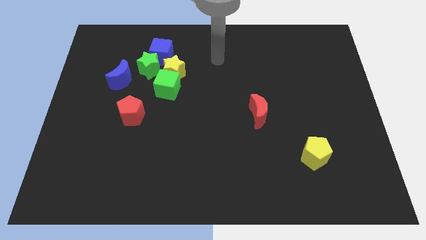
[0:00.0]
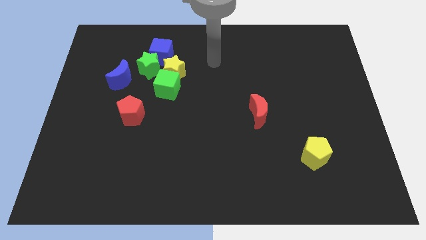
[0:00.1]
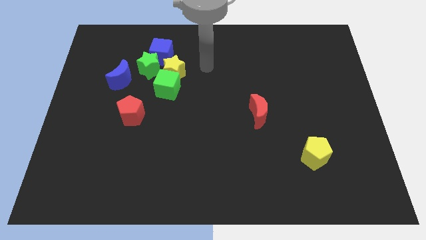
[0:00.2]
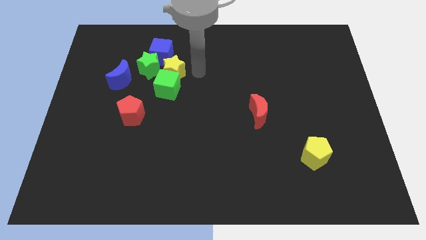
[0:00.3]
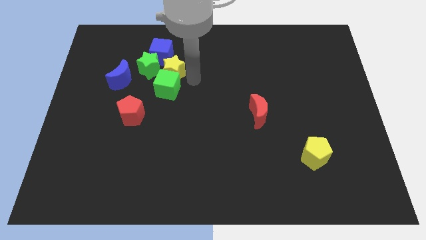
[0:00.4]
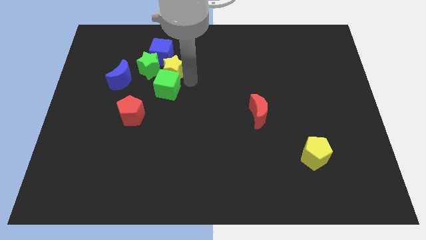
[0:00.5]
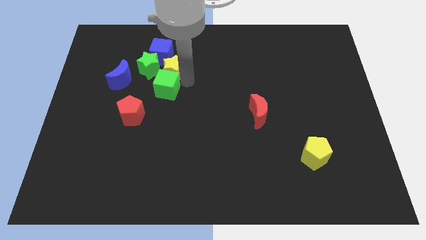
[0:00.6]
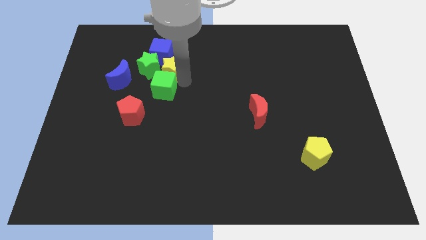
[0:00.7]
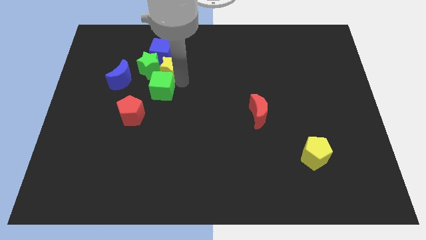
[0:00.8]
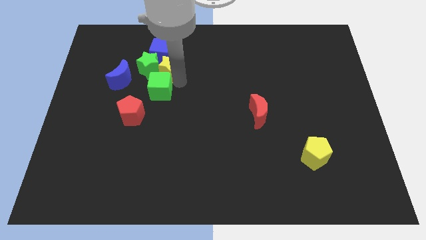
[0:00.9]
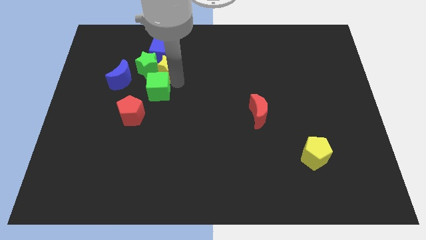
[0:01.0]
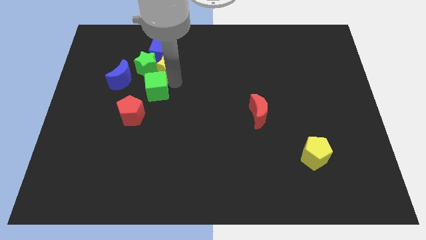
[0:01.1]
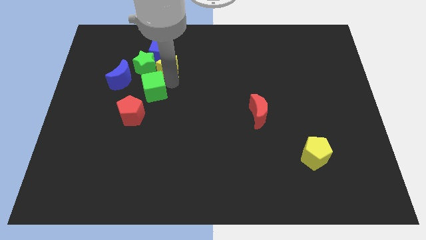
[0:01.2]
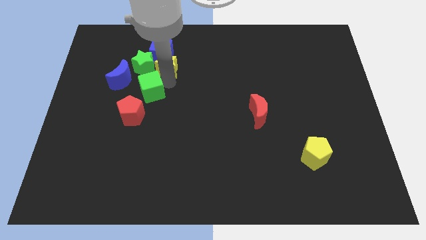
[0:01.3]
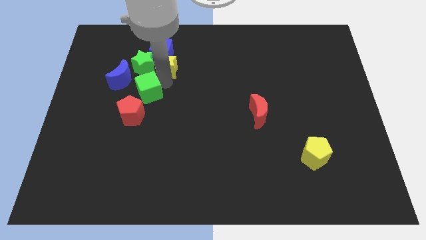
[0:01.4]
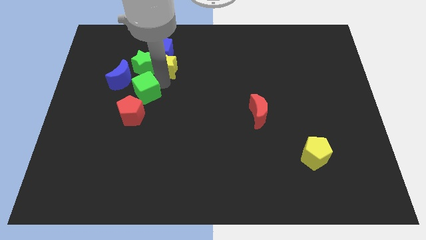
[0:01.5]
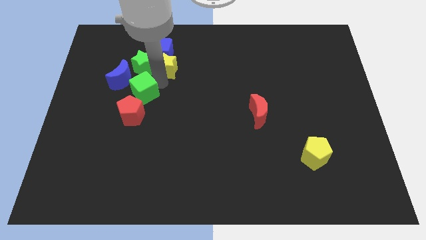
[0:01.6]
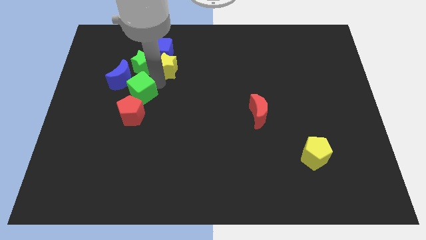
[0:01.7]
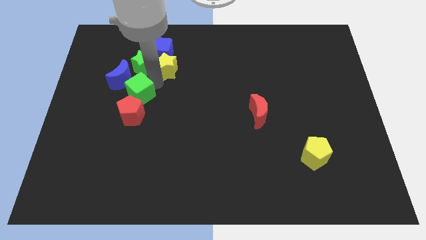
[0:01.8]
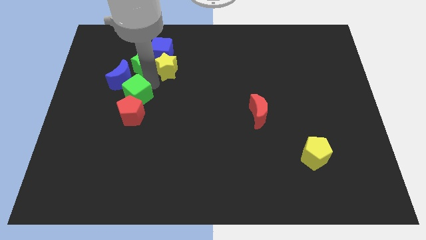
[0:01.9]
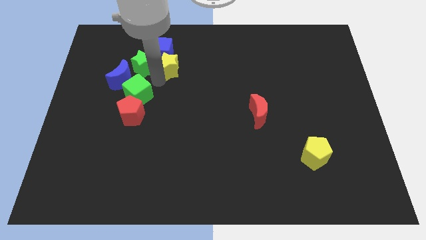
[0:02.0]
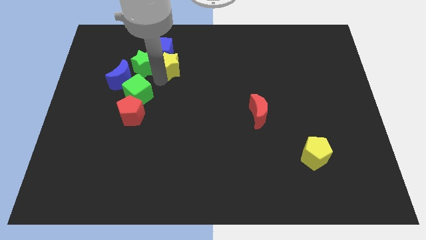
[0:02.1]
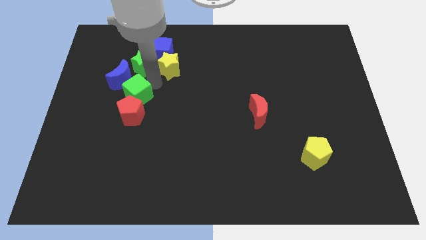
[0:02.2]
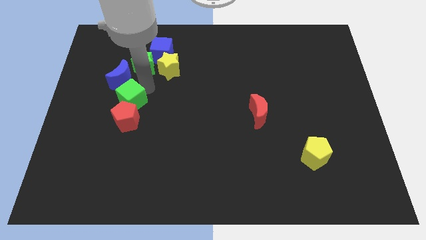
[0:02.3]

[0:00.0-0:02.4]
move the green cube down and left diagonally slightly

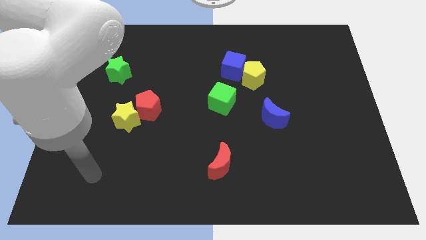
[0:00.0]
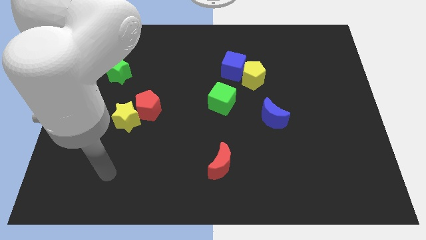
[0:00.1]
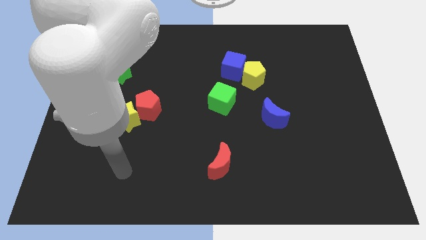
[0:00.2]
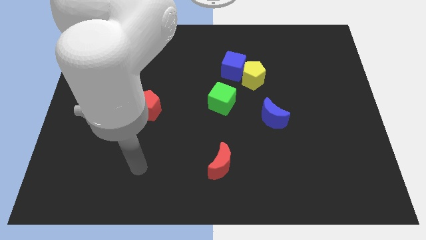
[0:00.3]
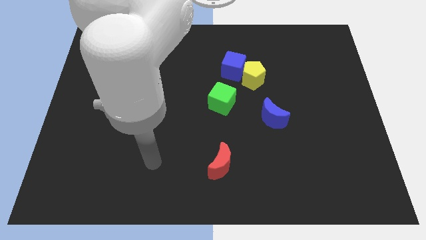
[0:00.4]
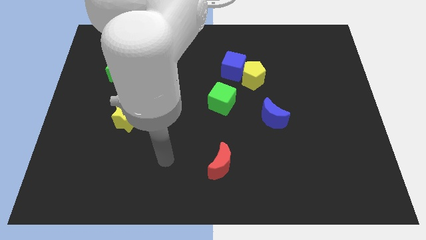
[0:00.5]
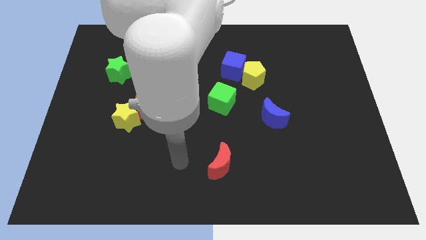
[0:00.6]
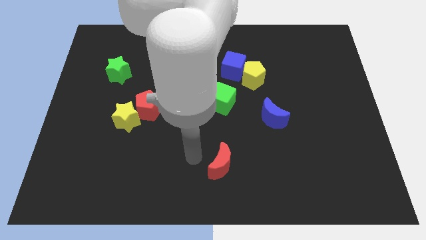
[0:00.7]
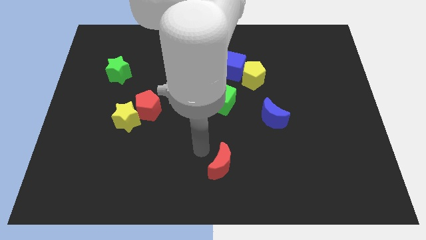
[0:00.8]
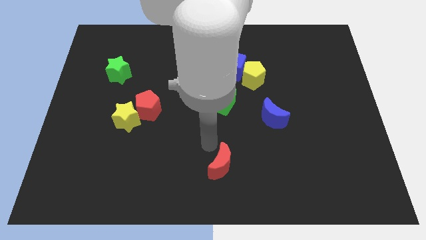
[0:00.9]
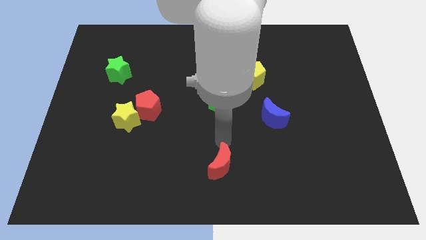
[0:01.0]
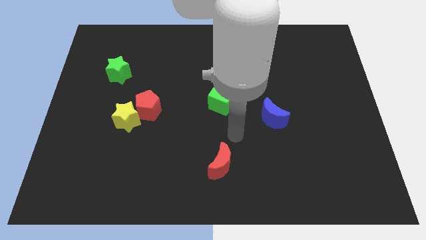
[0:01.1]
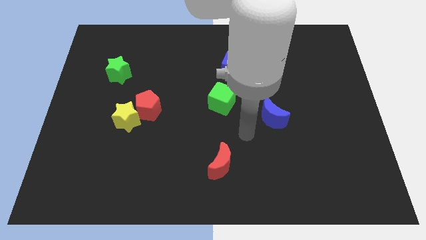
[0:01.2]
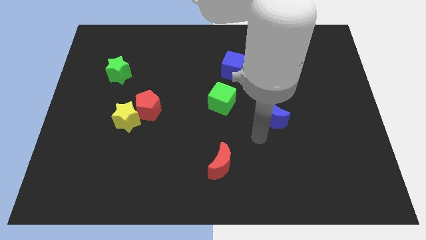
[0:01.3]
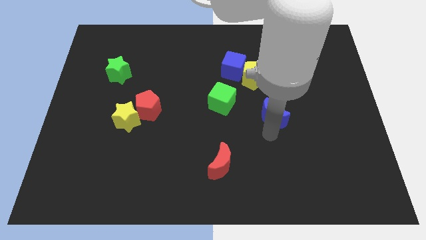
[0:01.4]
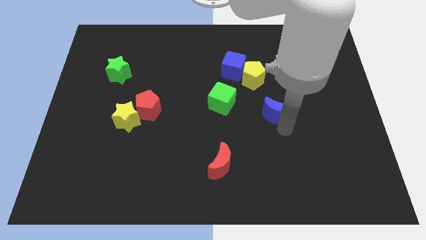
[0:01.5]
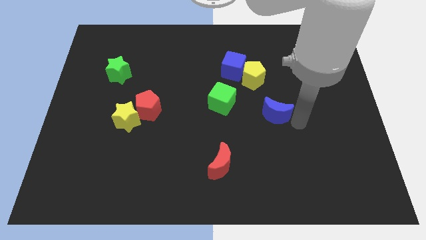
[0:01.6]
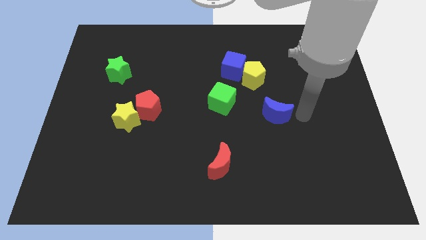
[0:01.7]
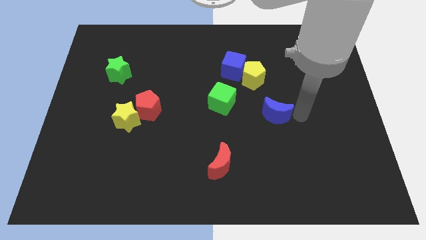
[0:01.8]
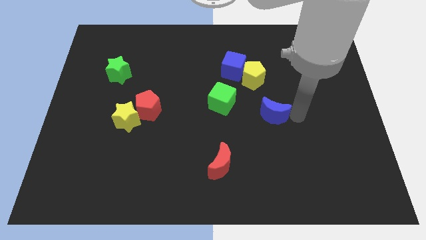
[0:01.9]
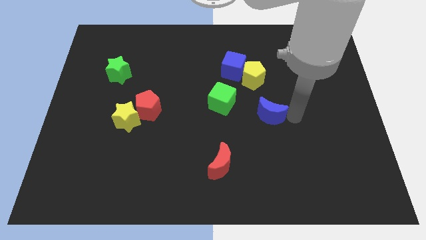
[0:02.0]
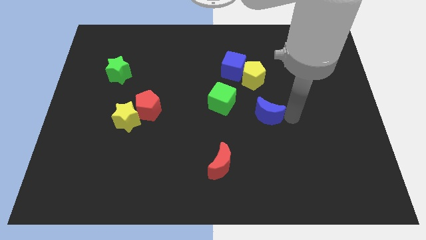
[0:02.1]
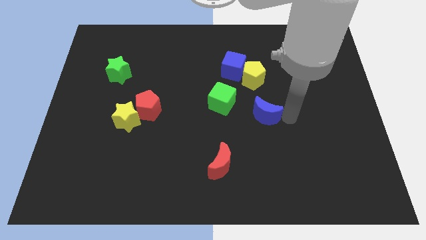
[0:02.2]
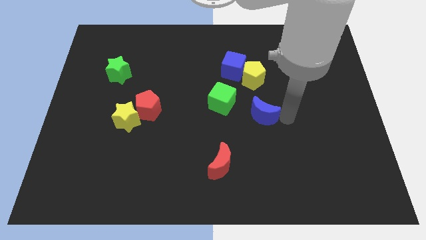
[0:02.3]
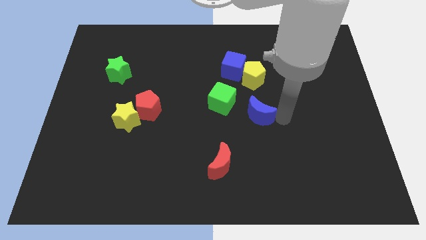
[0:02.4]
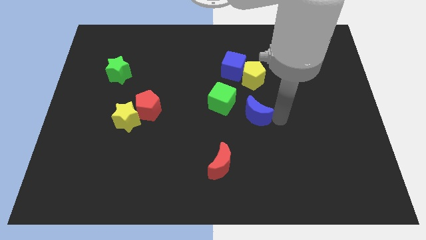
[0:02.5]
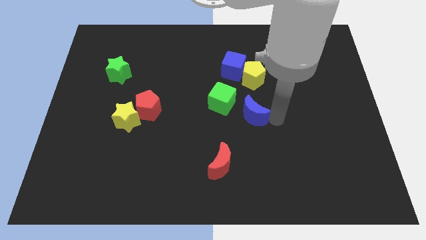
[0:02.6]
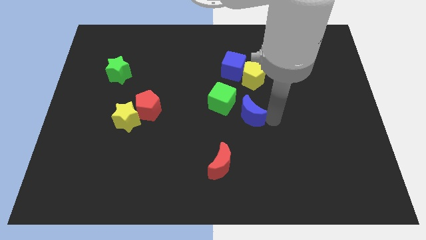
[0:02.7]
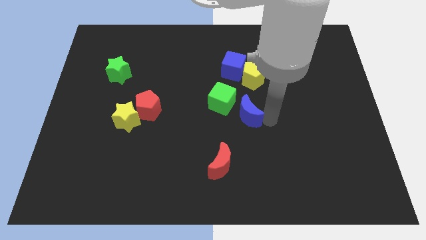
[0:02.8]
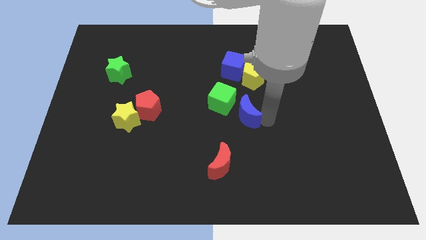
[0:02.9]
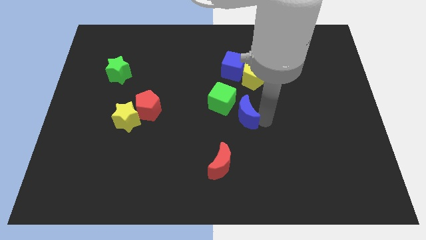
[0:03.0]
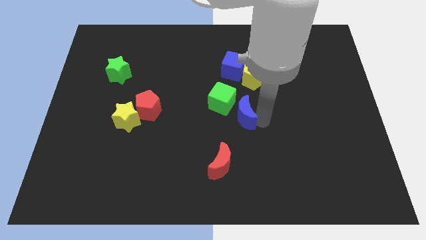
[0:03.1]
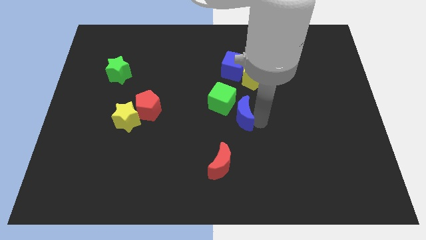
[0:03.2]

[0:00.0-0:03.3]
slide the blue moon left somewhat

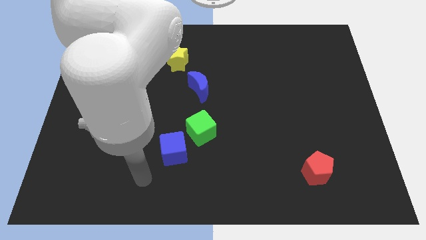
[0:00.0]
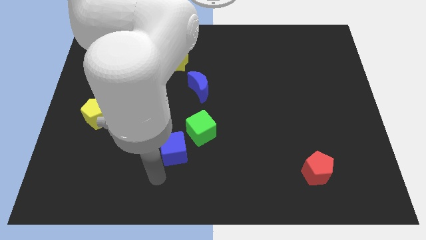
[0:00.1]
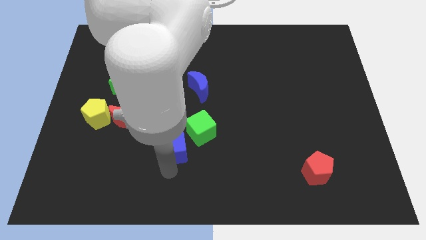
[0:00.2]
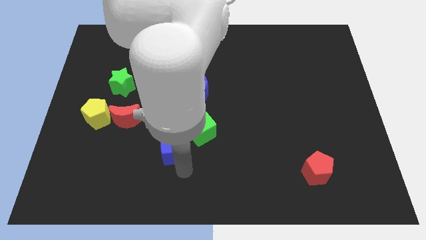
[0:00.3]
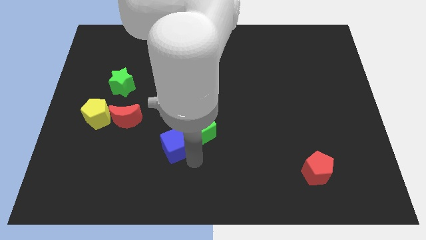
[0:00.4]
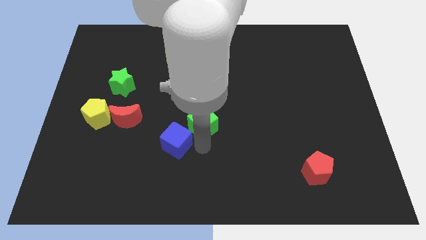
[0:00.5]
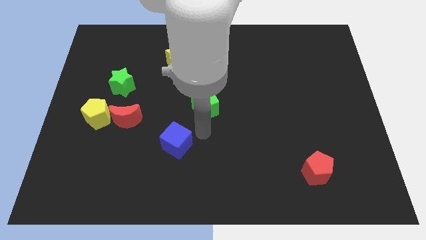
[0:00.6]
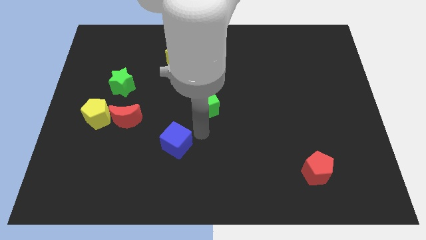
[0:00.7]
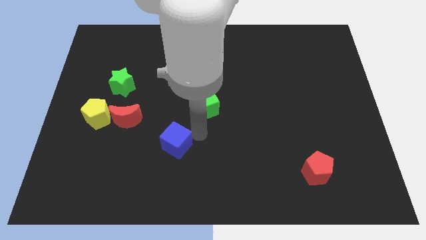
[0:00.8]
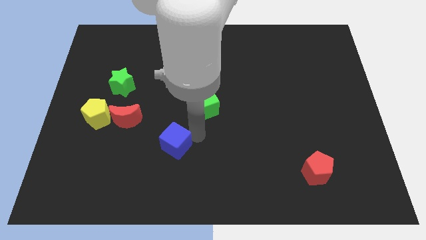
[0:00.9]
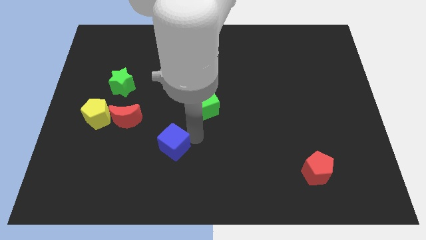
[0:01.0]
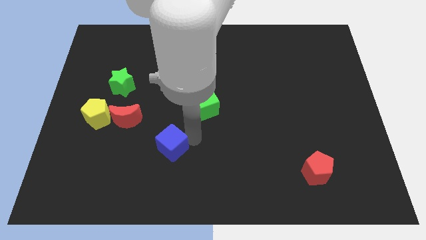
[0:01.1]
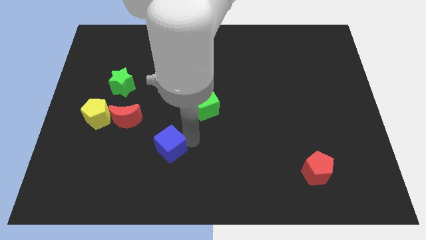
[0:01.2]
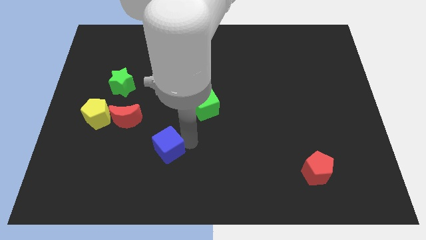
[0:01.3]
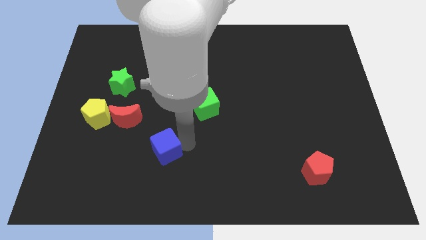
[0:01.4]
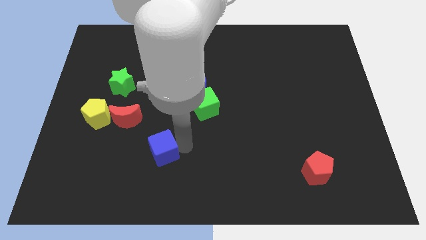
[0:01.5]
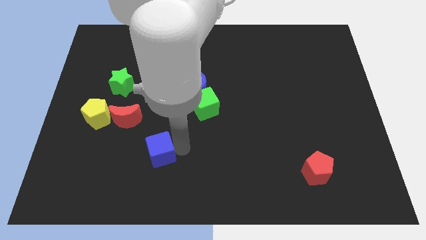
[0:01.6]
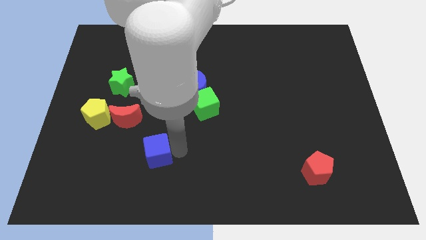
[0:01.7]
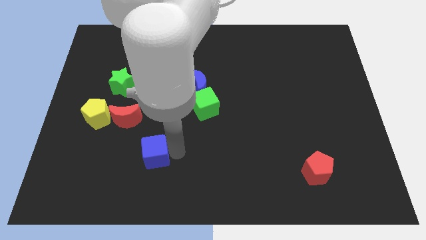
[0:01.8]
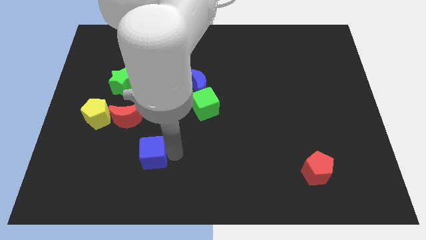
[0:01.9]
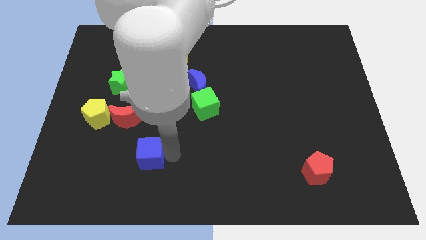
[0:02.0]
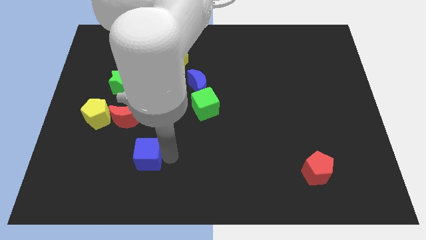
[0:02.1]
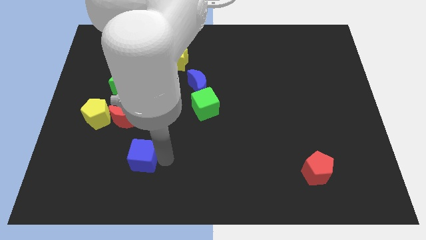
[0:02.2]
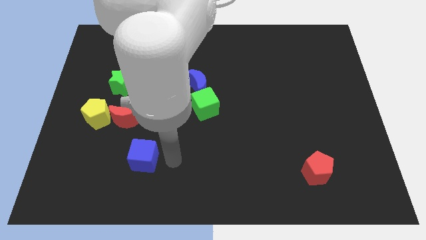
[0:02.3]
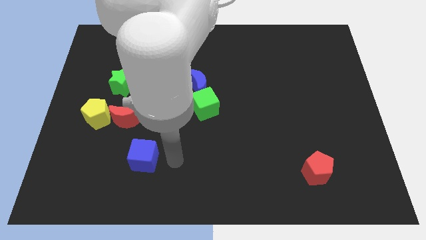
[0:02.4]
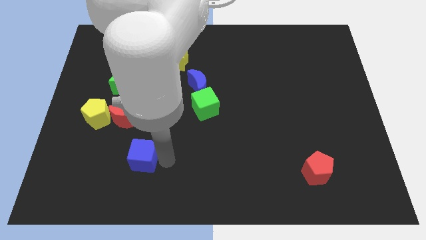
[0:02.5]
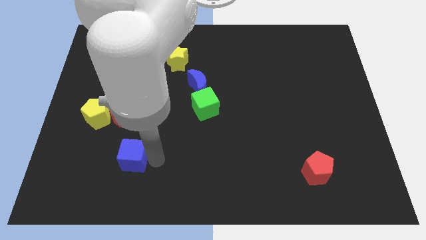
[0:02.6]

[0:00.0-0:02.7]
push the blue cube slightly left
